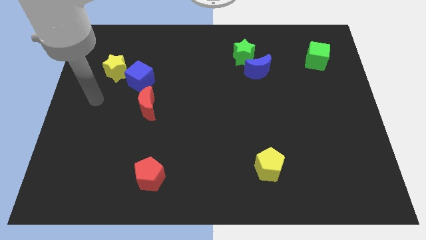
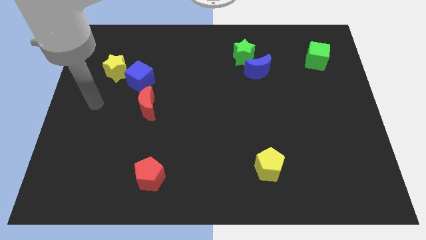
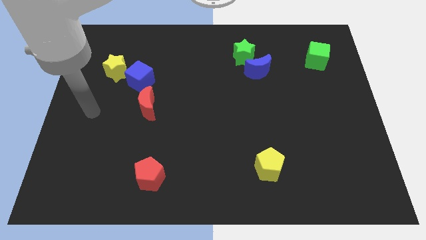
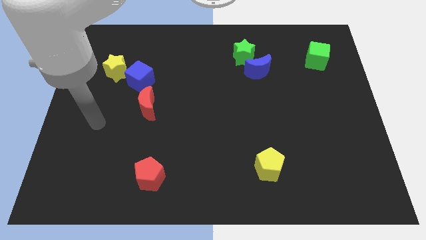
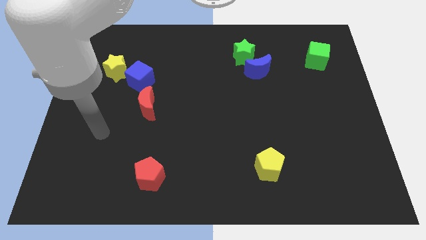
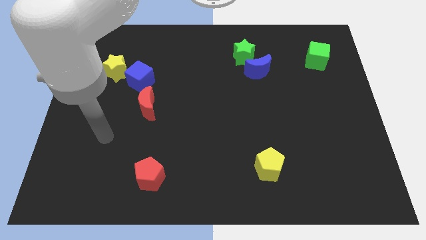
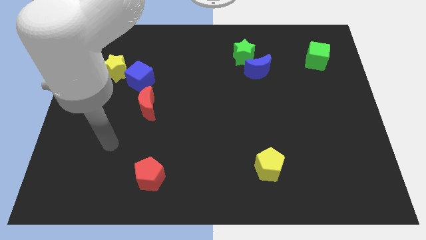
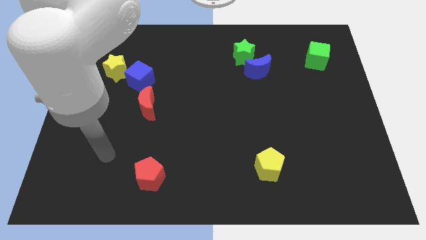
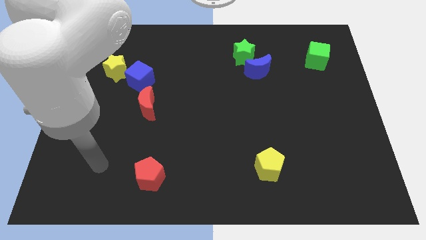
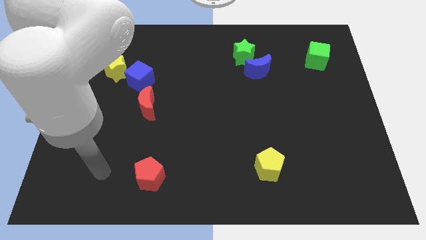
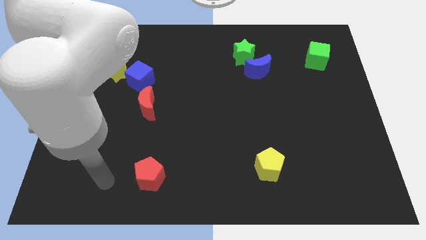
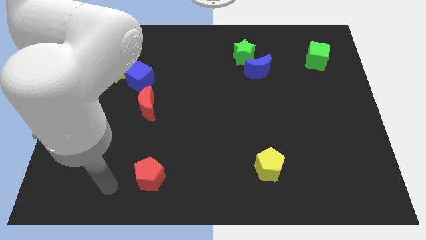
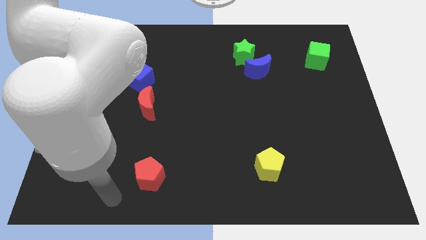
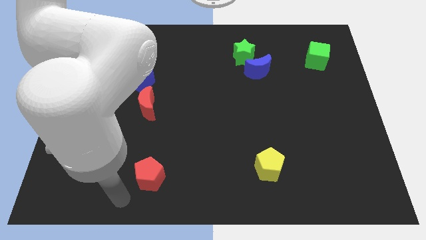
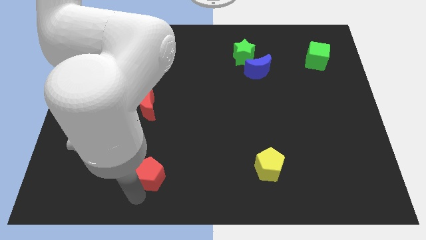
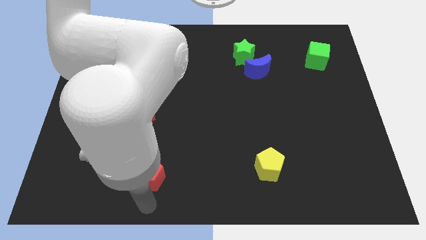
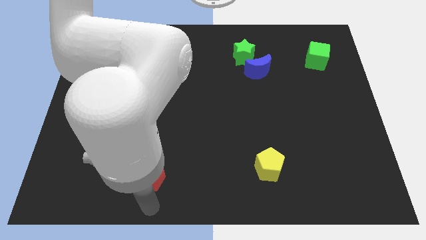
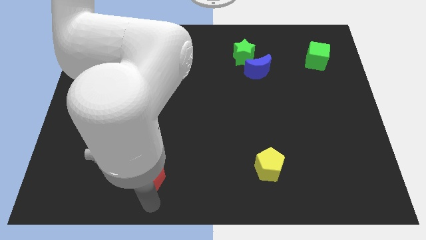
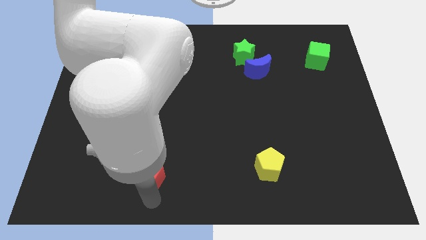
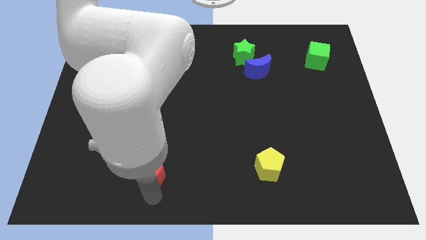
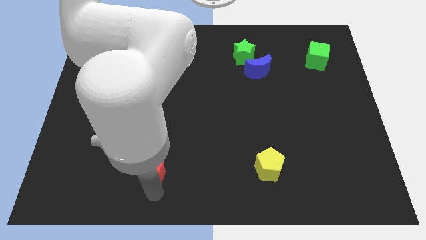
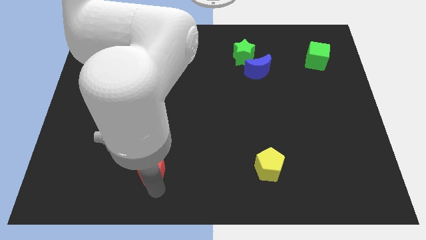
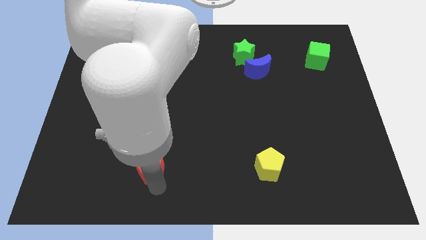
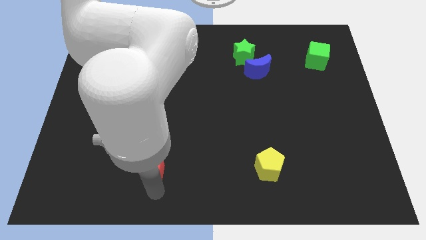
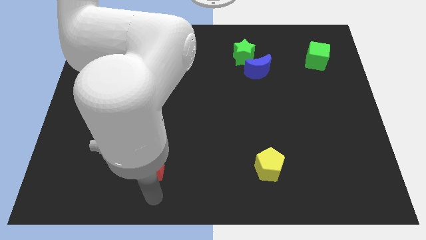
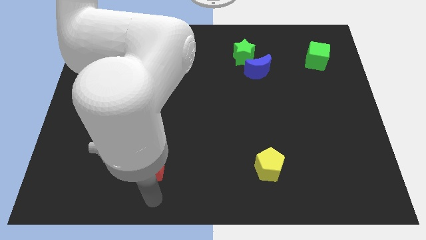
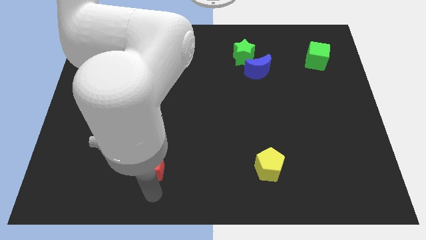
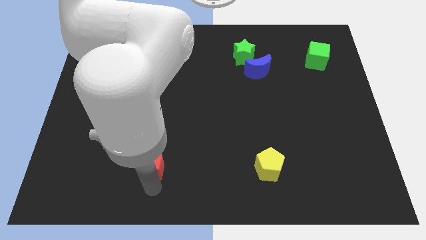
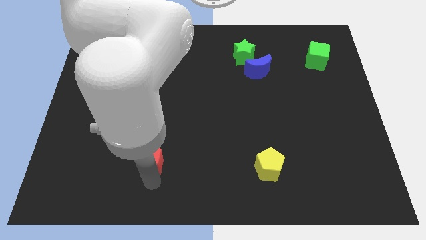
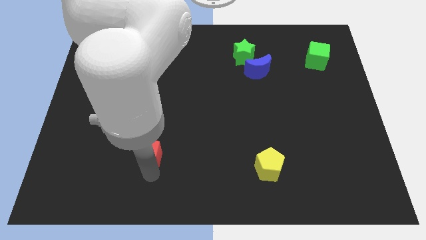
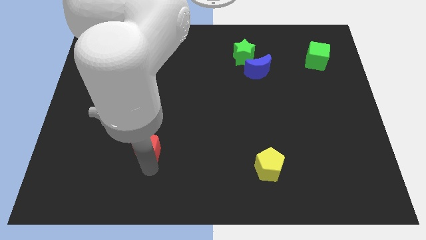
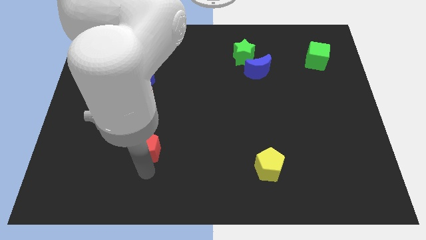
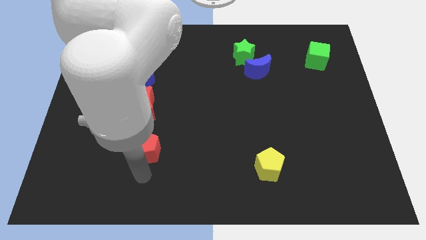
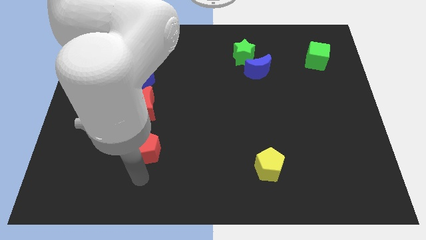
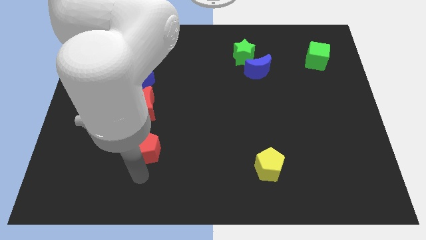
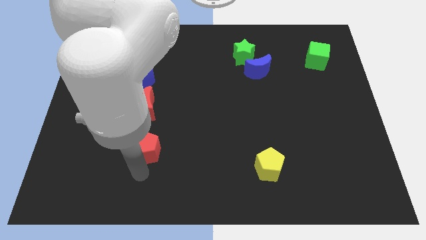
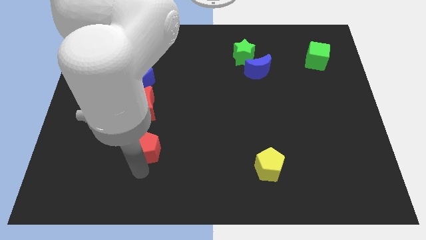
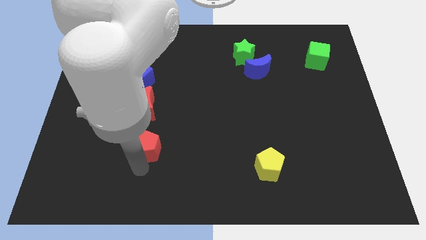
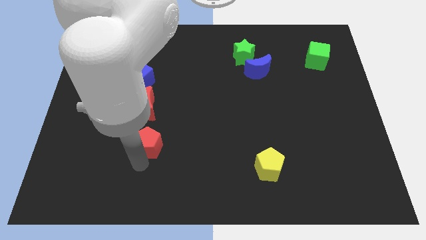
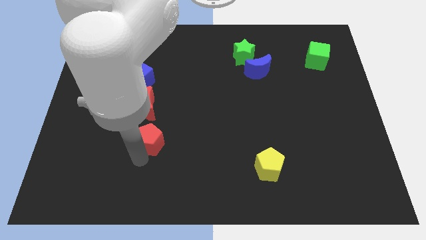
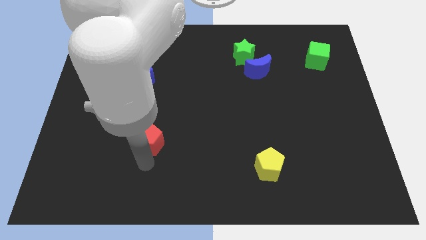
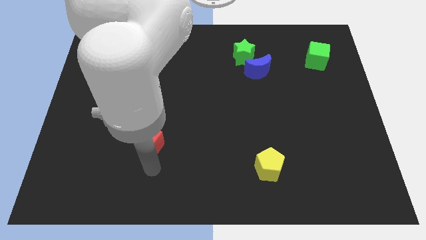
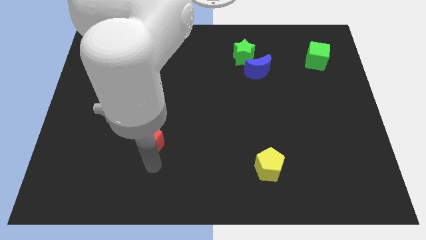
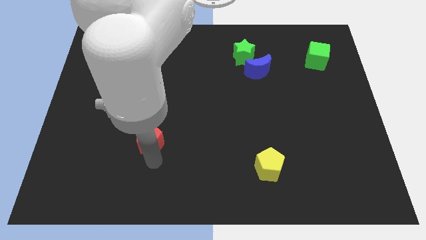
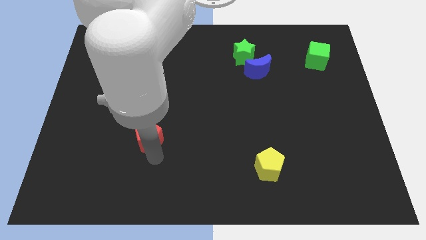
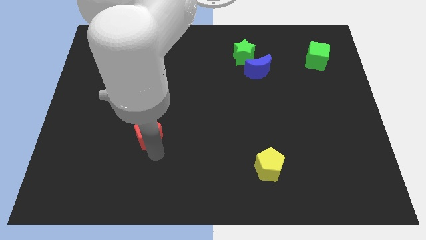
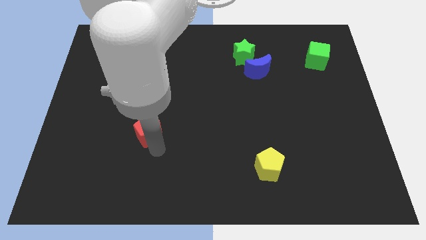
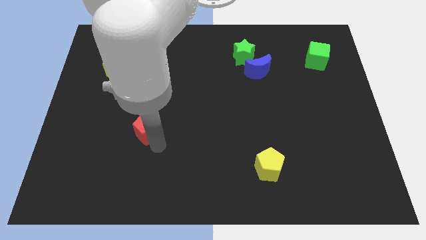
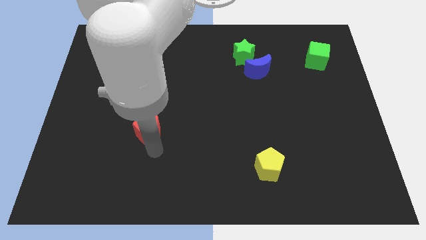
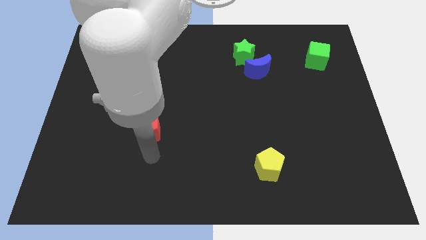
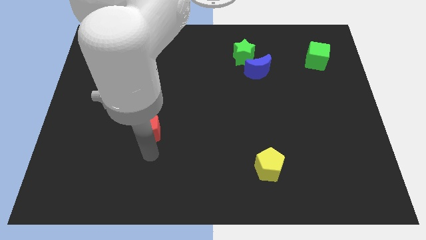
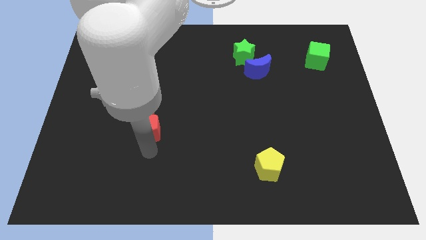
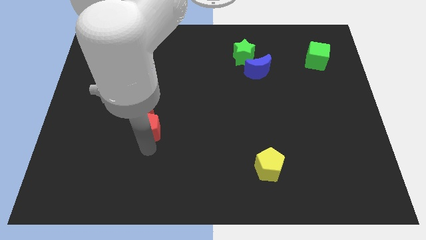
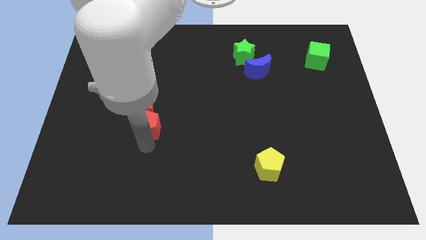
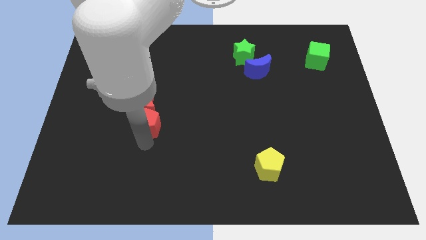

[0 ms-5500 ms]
push the red pentagon close to the red moon

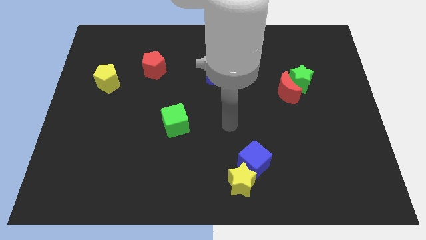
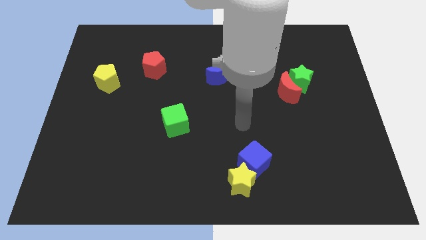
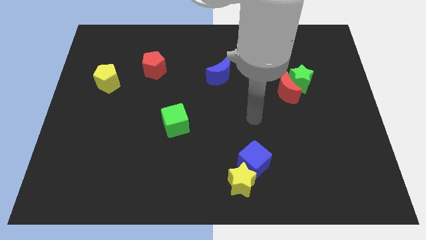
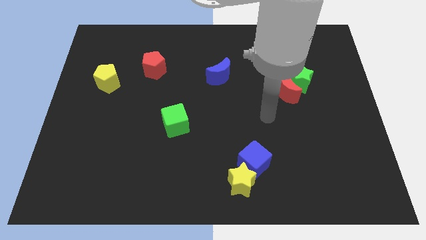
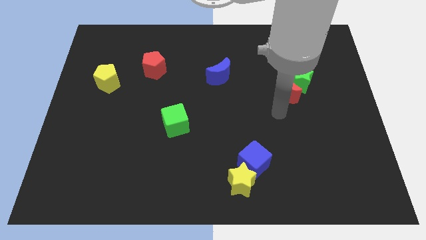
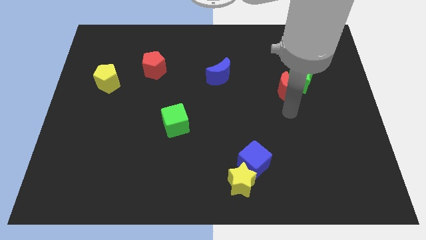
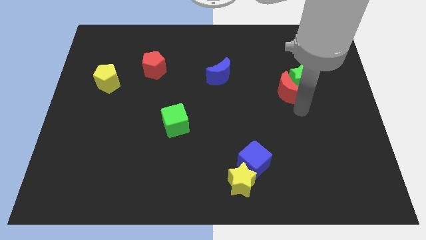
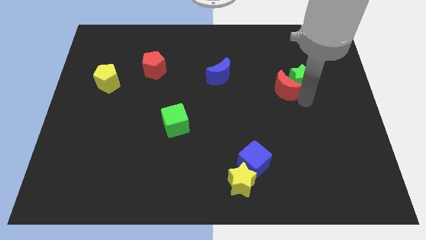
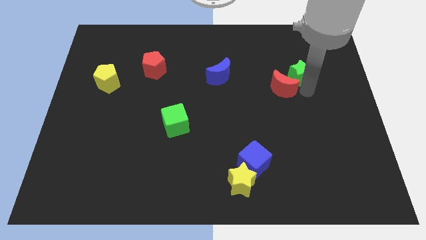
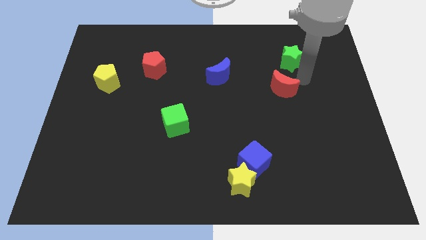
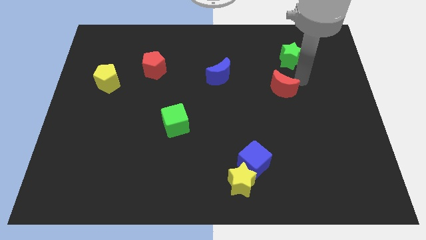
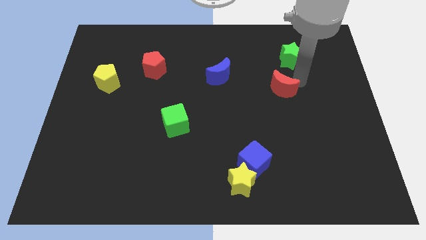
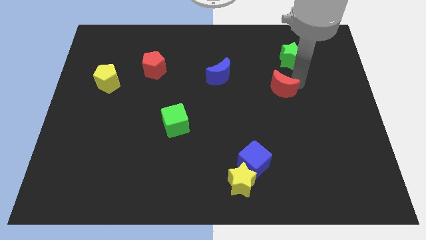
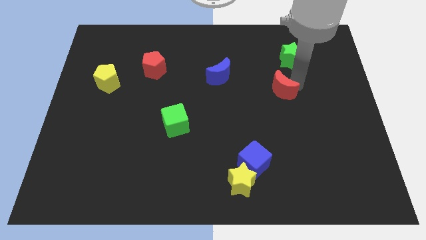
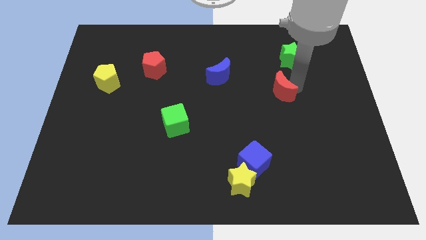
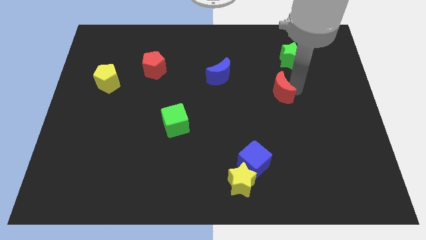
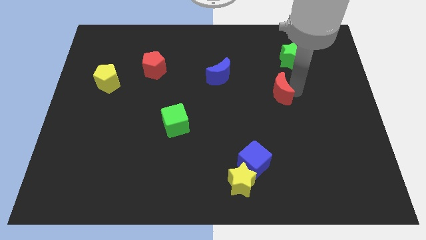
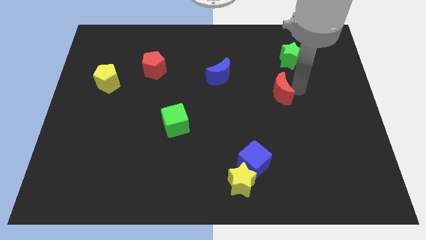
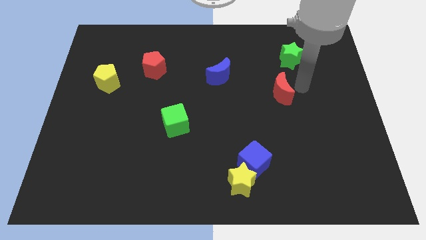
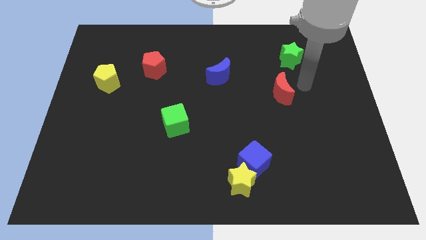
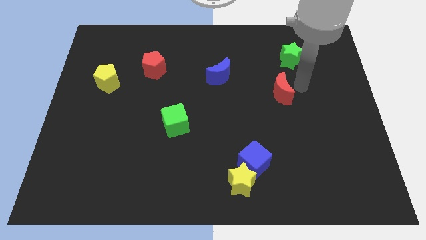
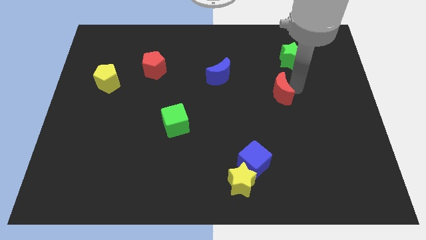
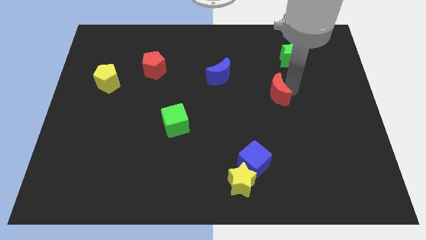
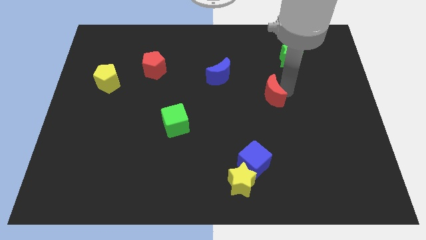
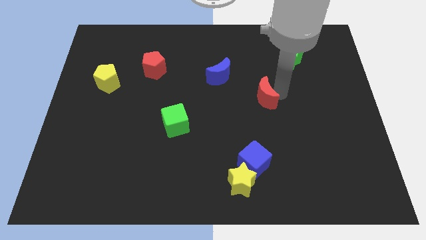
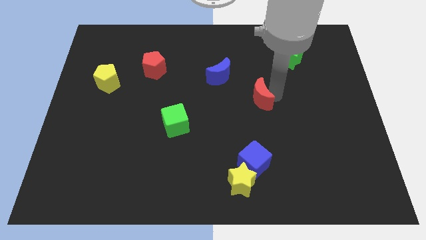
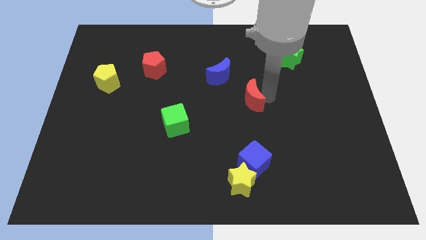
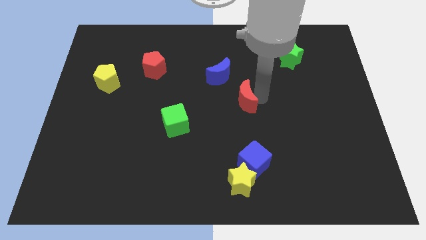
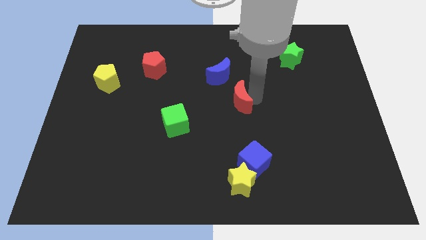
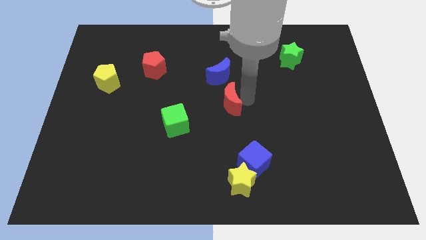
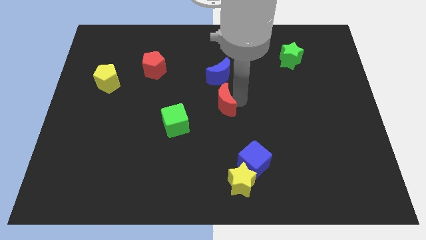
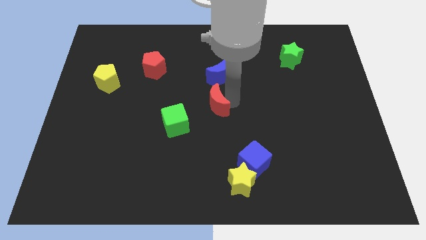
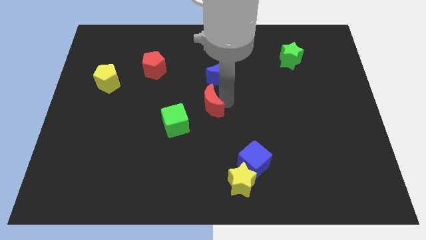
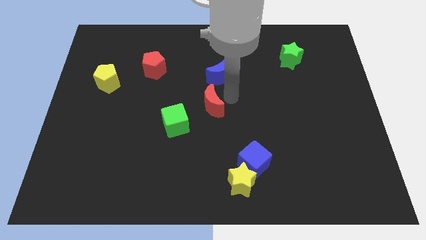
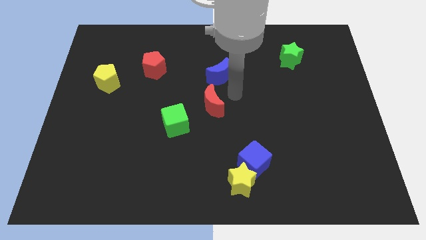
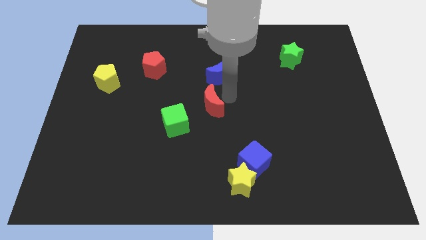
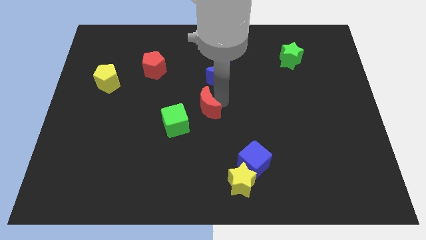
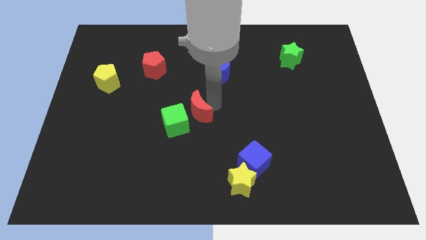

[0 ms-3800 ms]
put the red moon to the green cube
